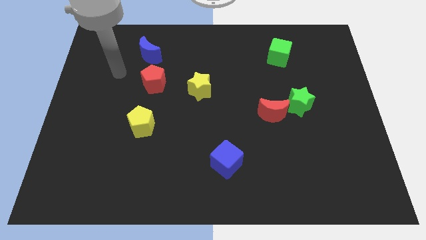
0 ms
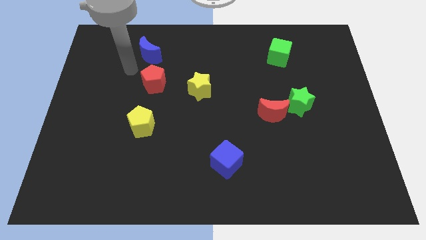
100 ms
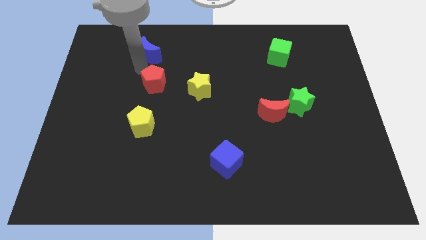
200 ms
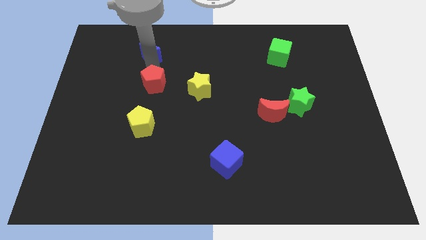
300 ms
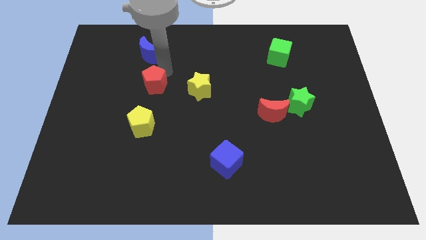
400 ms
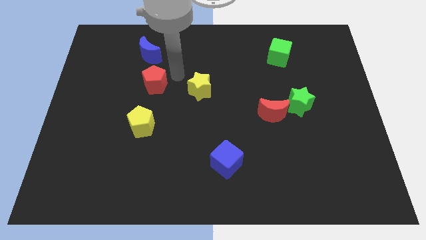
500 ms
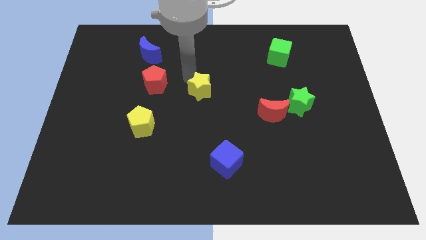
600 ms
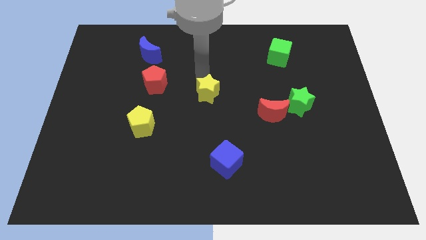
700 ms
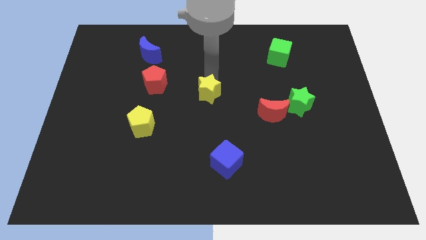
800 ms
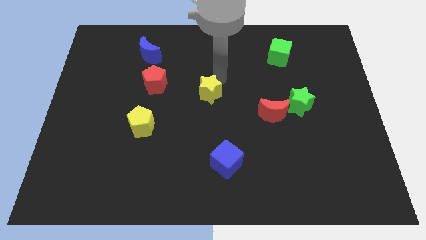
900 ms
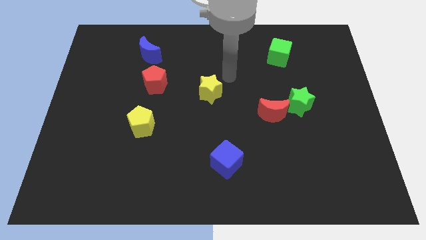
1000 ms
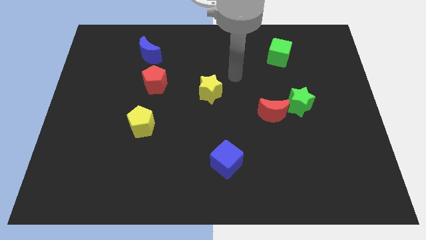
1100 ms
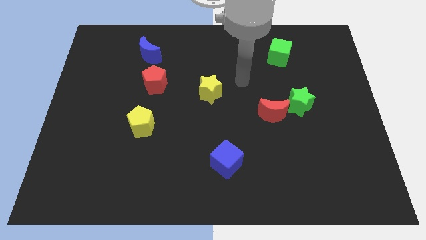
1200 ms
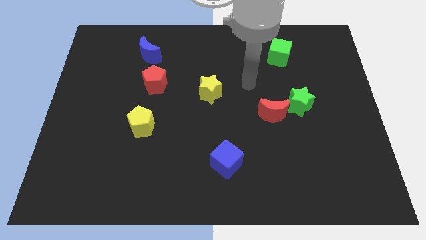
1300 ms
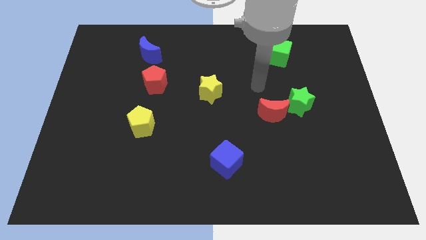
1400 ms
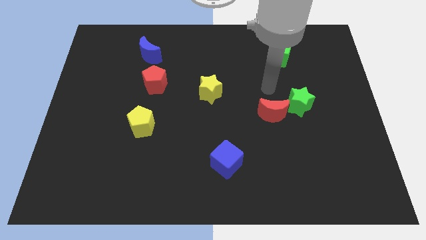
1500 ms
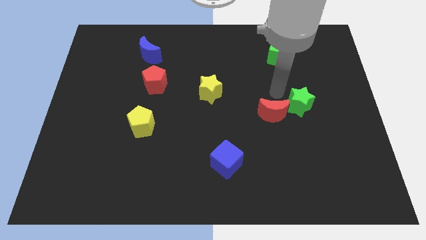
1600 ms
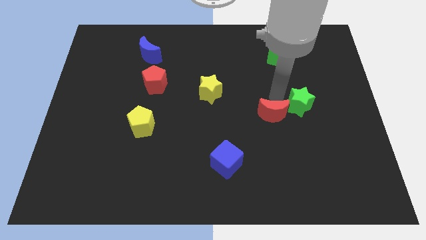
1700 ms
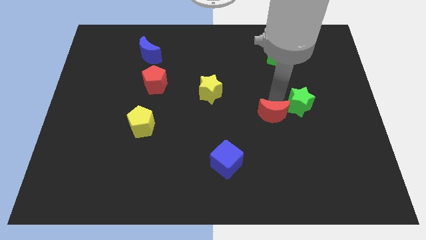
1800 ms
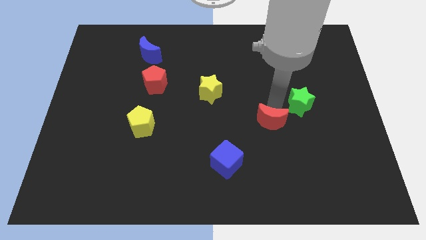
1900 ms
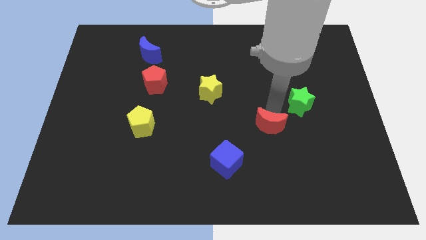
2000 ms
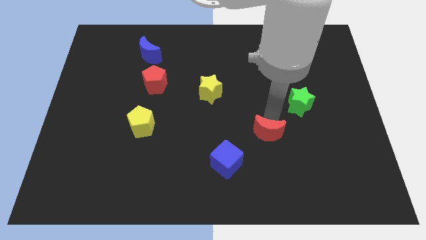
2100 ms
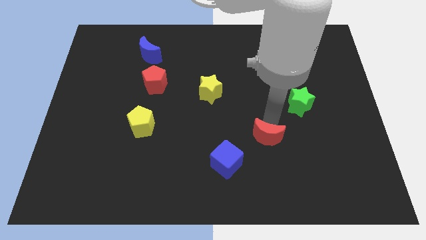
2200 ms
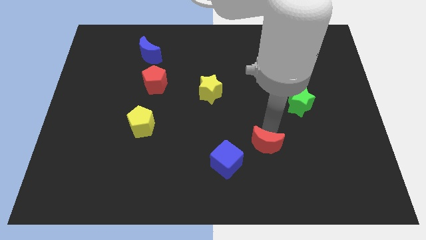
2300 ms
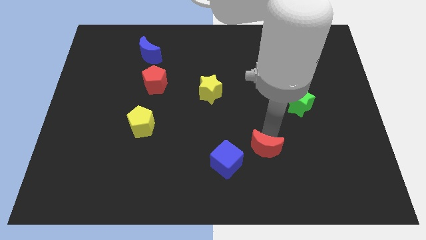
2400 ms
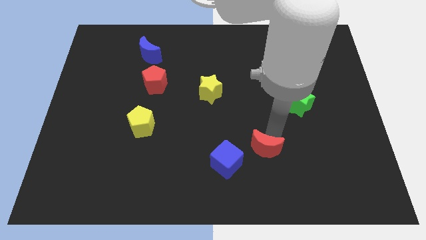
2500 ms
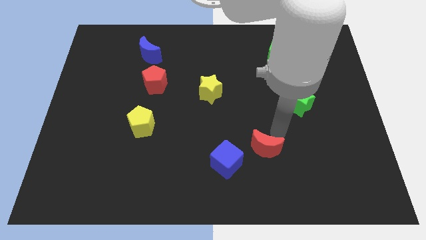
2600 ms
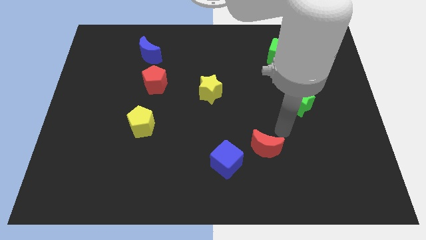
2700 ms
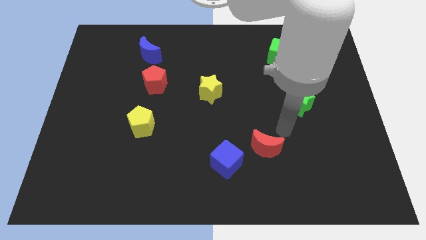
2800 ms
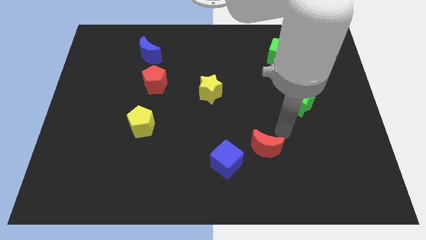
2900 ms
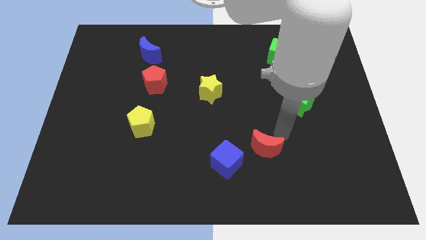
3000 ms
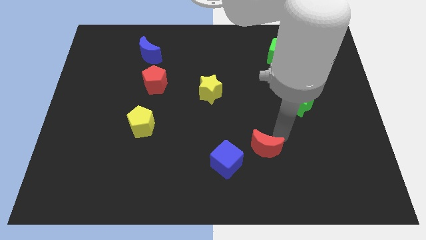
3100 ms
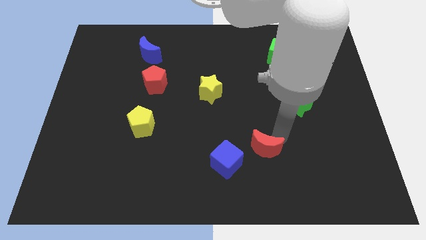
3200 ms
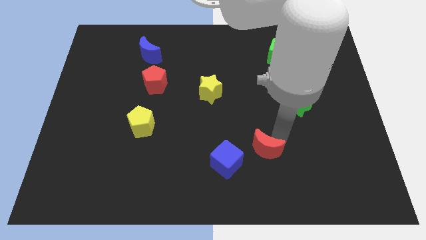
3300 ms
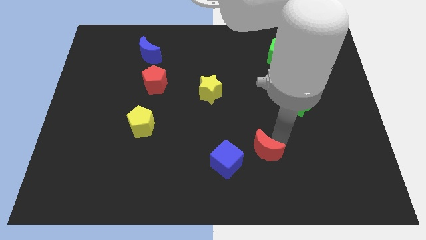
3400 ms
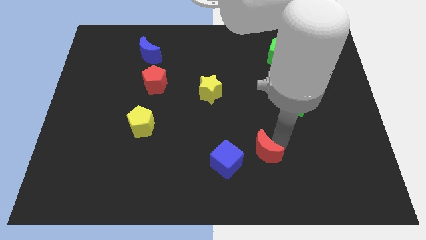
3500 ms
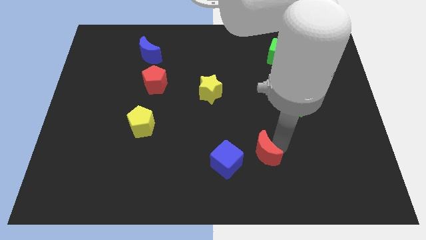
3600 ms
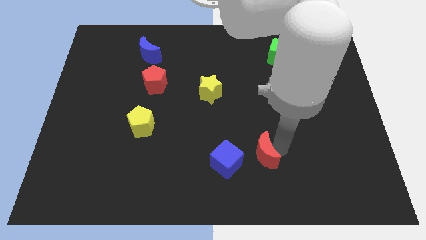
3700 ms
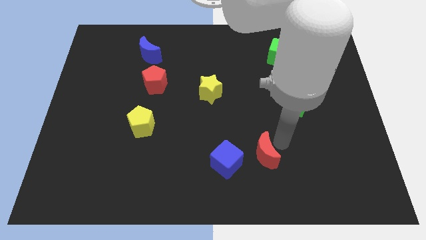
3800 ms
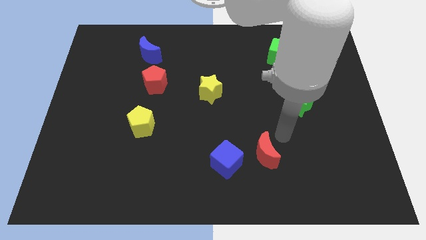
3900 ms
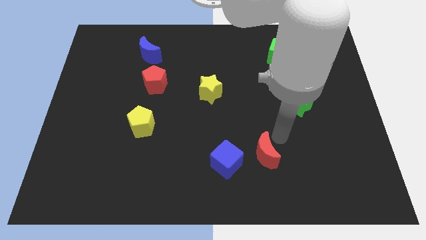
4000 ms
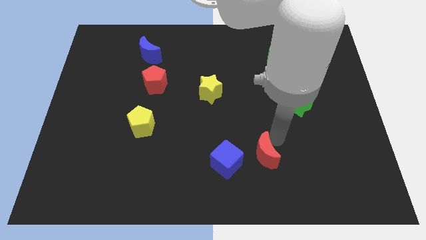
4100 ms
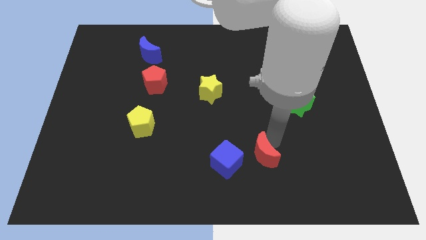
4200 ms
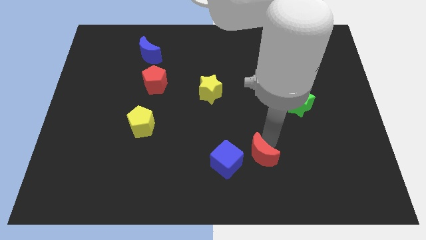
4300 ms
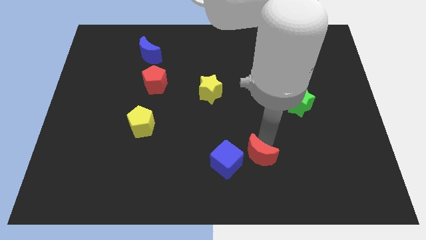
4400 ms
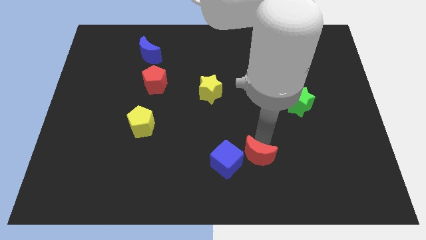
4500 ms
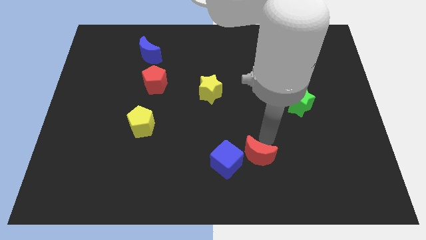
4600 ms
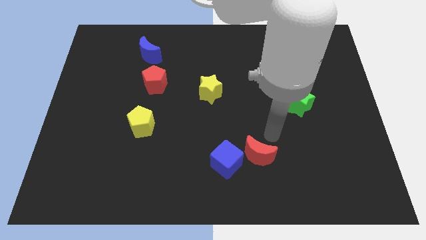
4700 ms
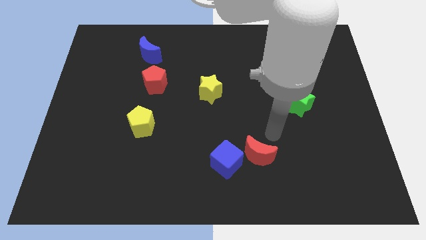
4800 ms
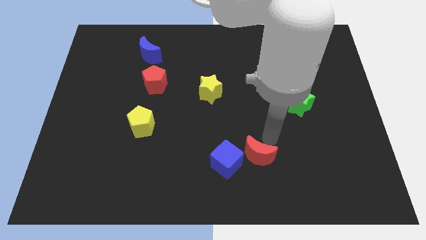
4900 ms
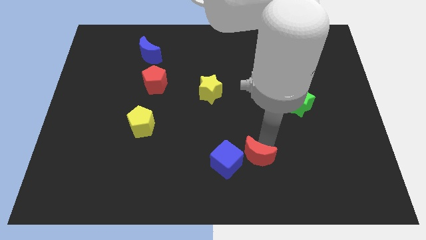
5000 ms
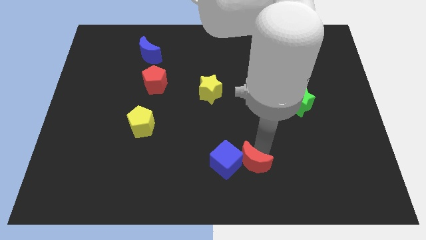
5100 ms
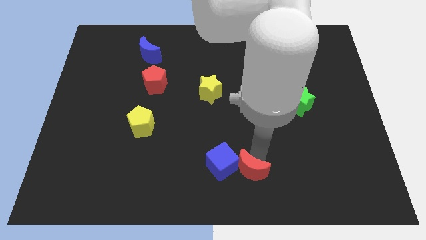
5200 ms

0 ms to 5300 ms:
move the red moon to the bottom
